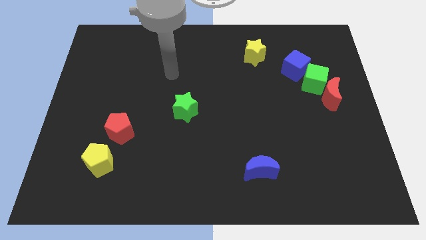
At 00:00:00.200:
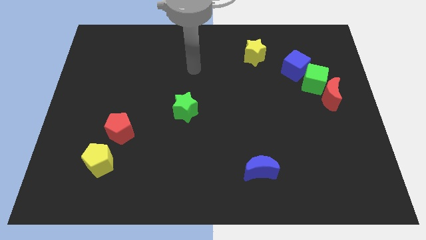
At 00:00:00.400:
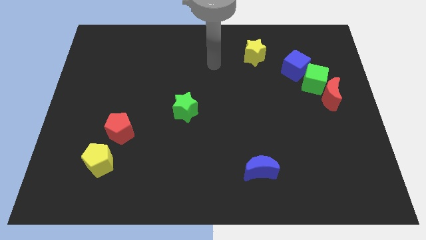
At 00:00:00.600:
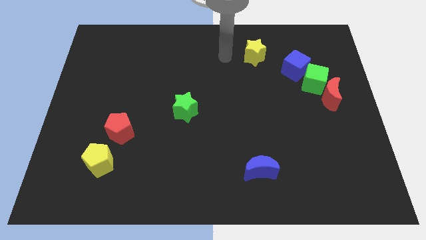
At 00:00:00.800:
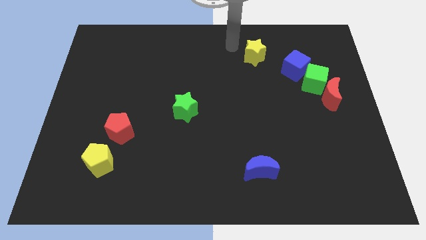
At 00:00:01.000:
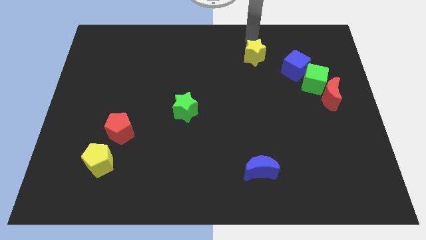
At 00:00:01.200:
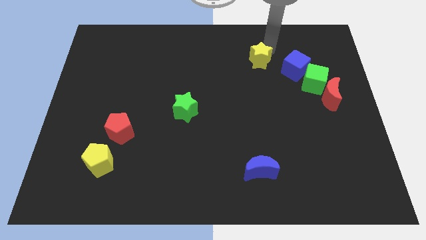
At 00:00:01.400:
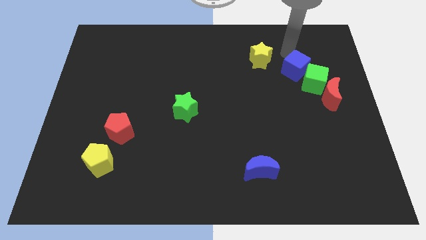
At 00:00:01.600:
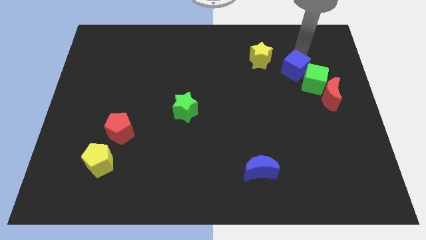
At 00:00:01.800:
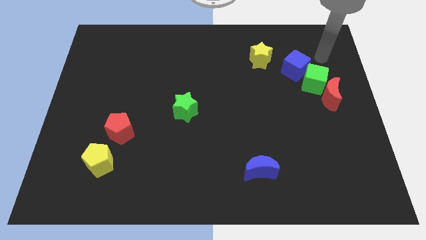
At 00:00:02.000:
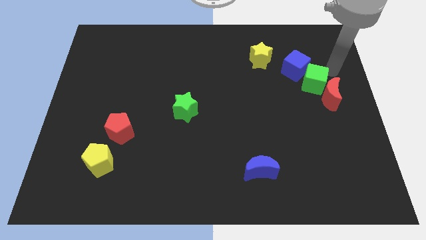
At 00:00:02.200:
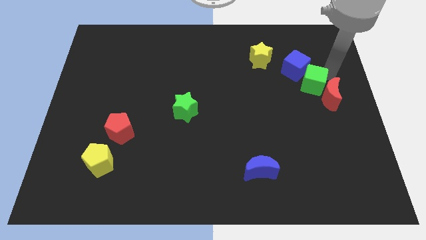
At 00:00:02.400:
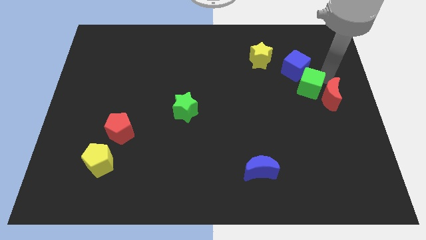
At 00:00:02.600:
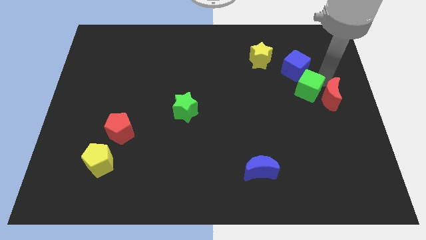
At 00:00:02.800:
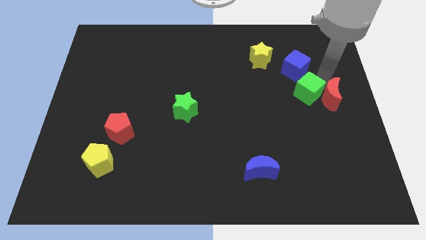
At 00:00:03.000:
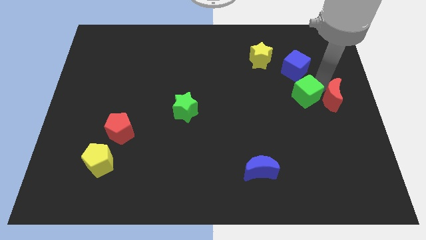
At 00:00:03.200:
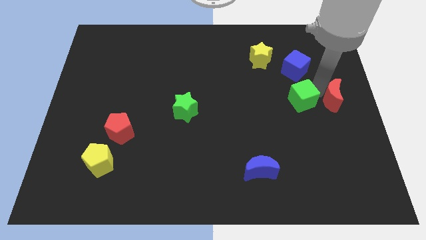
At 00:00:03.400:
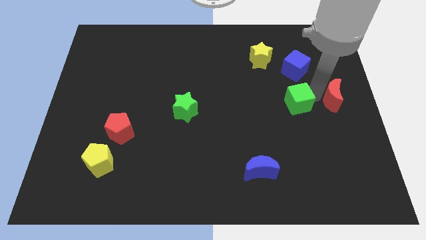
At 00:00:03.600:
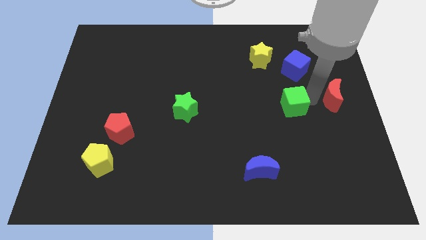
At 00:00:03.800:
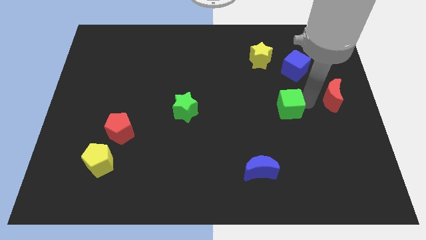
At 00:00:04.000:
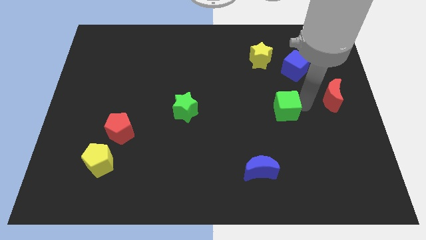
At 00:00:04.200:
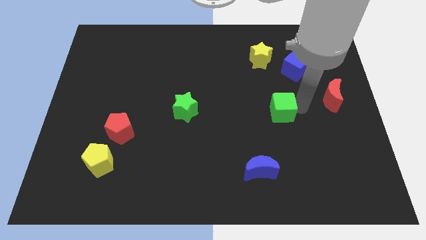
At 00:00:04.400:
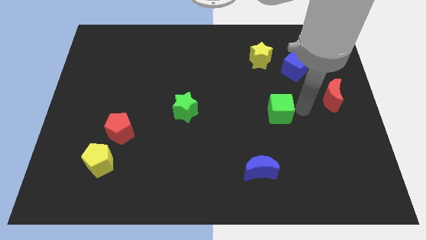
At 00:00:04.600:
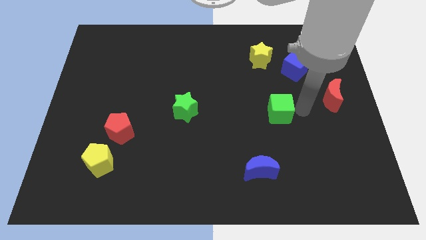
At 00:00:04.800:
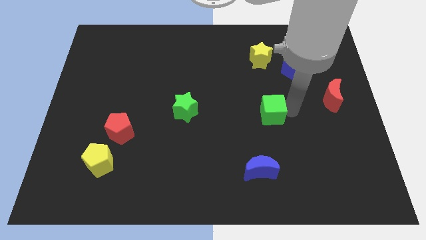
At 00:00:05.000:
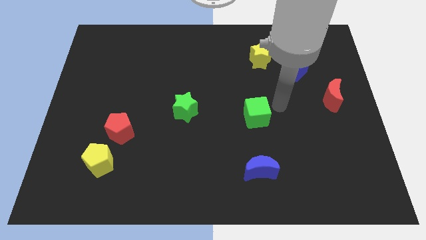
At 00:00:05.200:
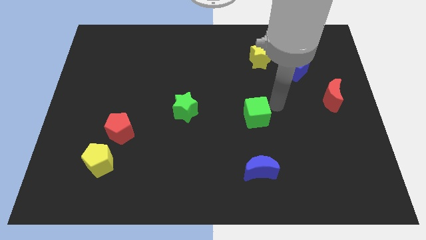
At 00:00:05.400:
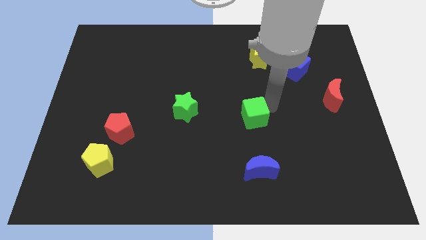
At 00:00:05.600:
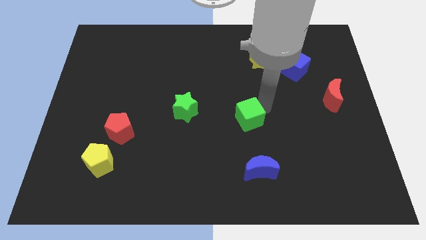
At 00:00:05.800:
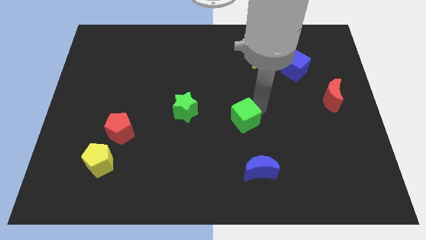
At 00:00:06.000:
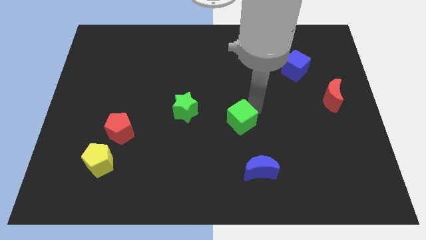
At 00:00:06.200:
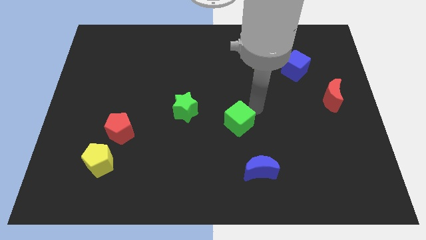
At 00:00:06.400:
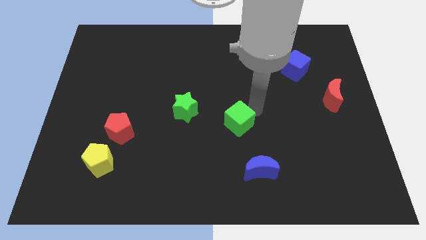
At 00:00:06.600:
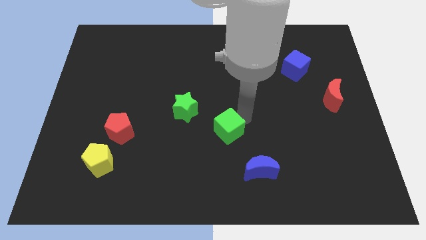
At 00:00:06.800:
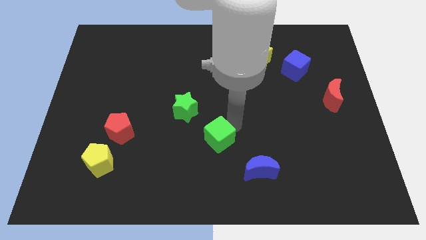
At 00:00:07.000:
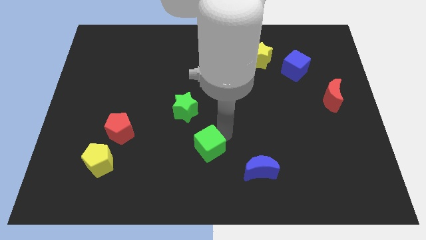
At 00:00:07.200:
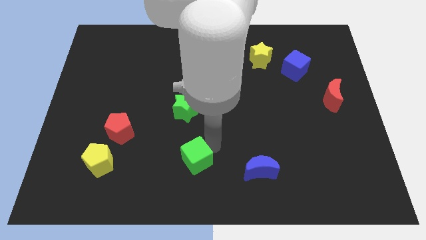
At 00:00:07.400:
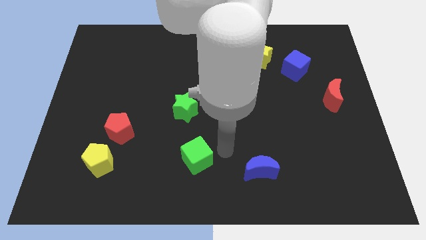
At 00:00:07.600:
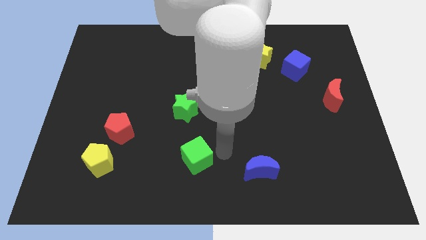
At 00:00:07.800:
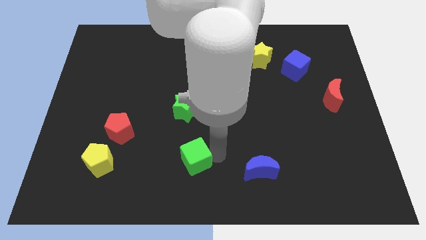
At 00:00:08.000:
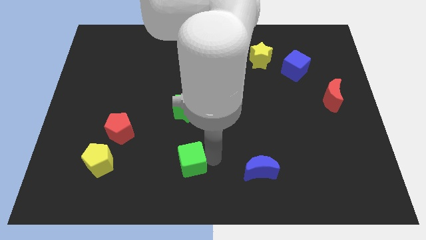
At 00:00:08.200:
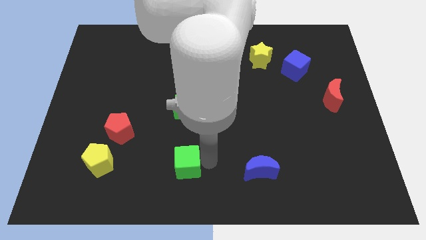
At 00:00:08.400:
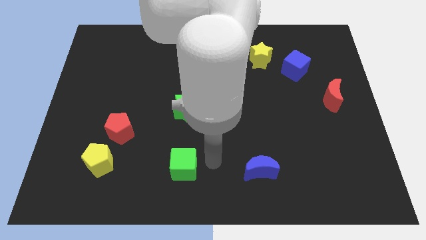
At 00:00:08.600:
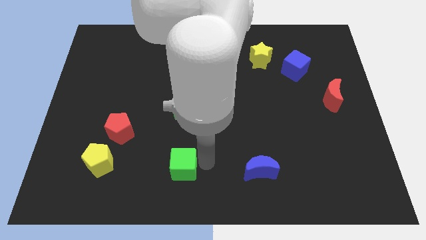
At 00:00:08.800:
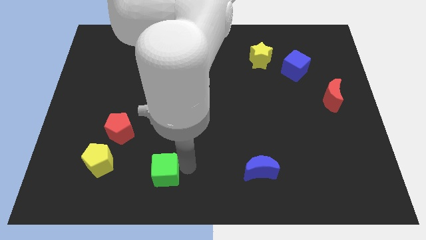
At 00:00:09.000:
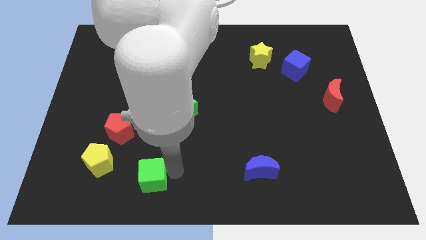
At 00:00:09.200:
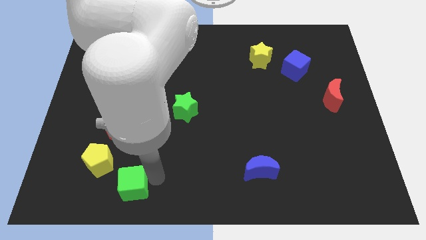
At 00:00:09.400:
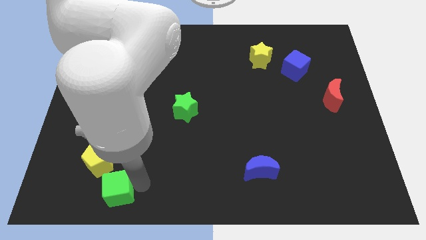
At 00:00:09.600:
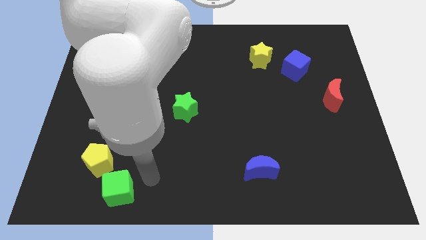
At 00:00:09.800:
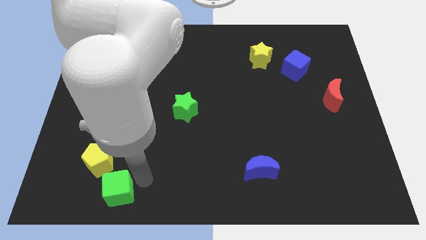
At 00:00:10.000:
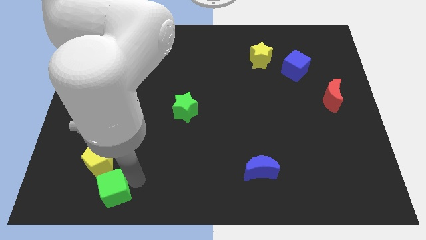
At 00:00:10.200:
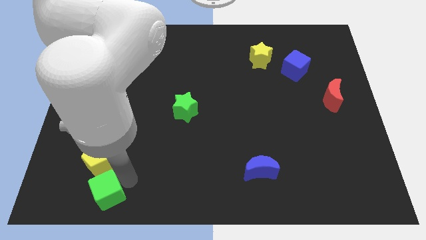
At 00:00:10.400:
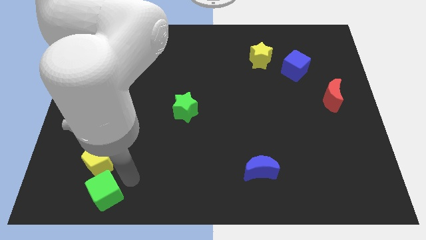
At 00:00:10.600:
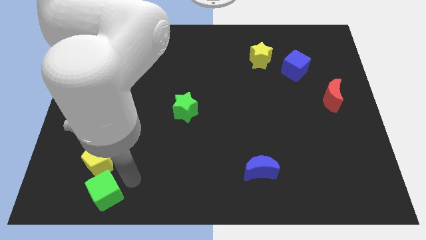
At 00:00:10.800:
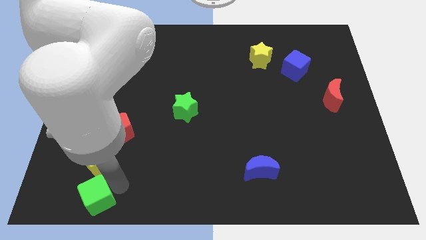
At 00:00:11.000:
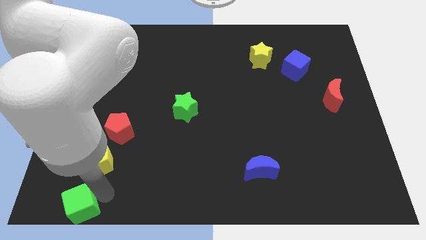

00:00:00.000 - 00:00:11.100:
push the green cube to the lower left corner
